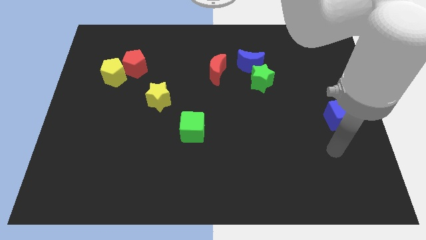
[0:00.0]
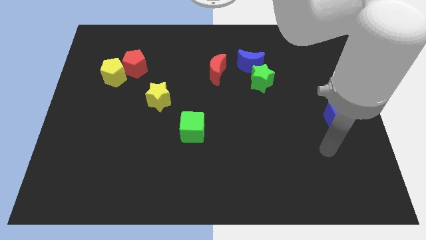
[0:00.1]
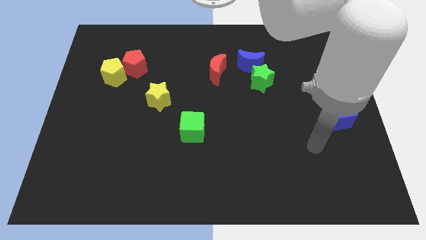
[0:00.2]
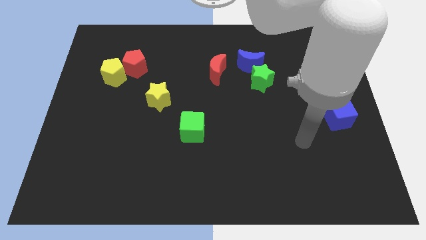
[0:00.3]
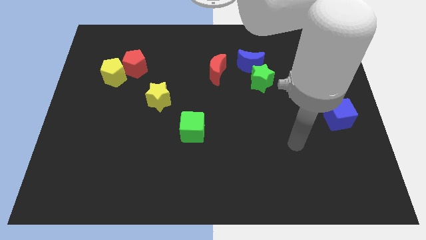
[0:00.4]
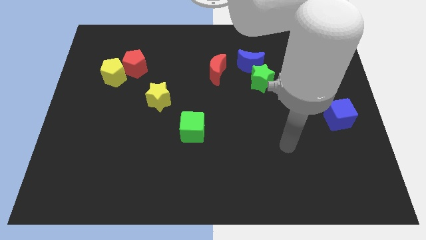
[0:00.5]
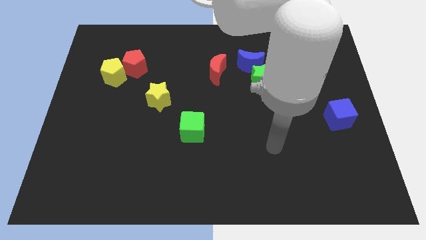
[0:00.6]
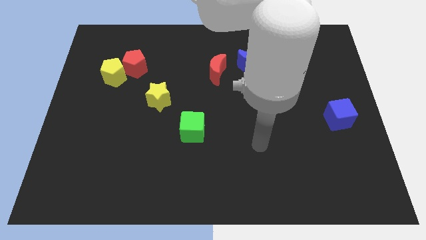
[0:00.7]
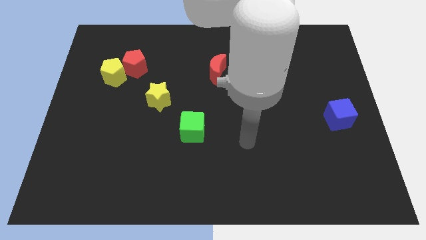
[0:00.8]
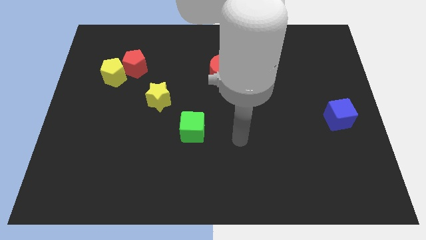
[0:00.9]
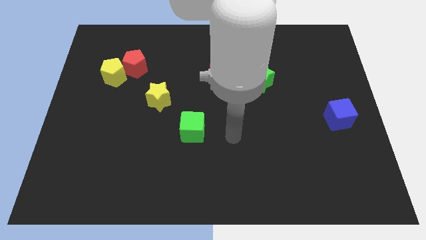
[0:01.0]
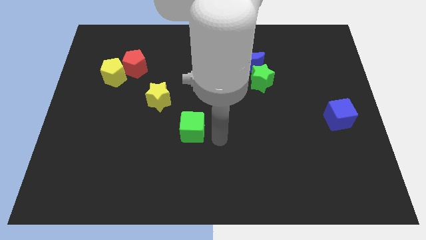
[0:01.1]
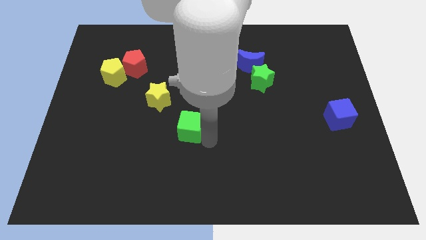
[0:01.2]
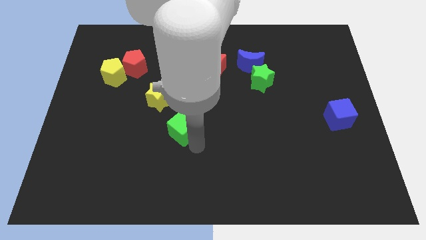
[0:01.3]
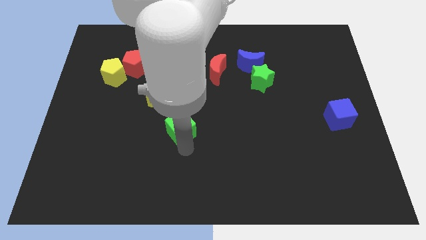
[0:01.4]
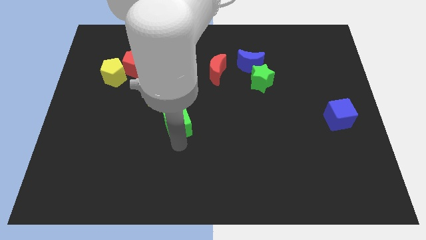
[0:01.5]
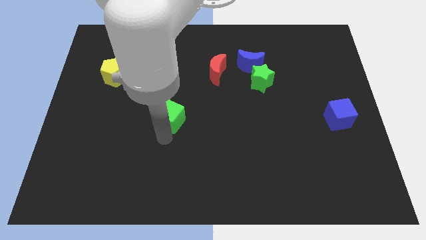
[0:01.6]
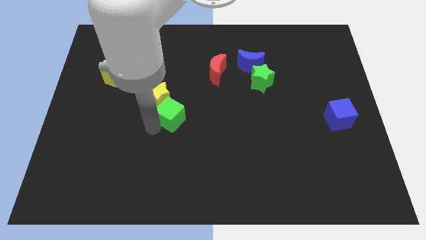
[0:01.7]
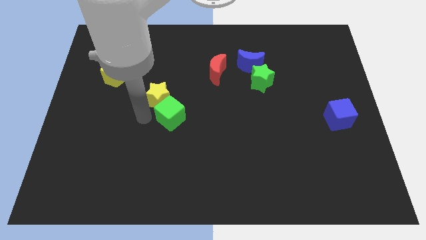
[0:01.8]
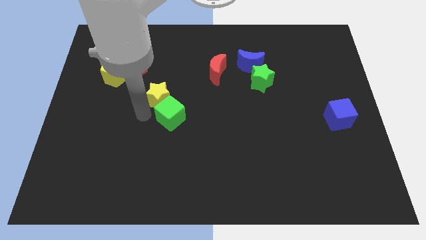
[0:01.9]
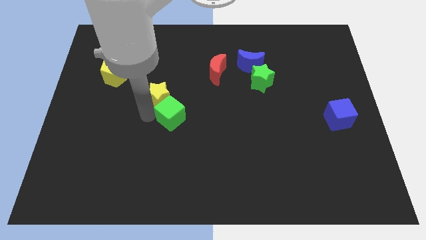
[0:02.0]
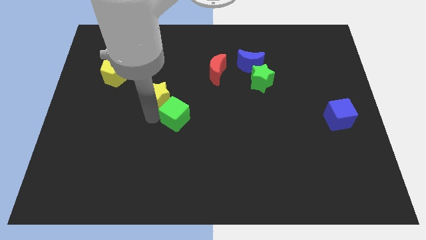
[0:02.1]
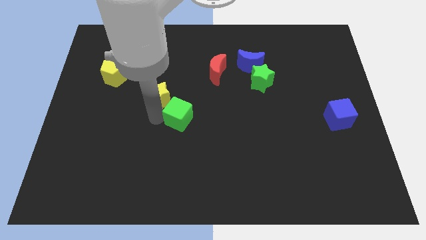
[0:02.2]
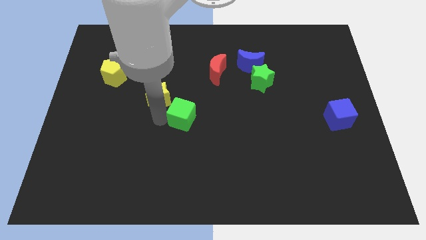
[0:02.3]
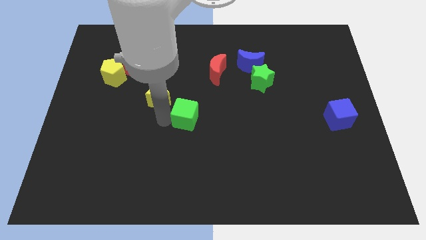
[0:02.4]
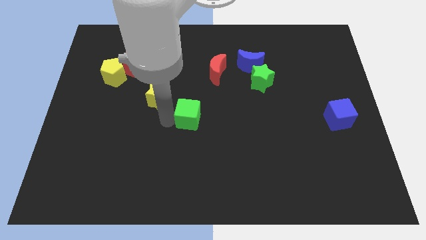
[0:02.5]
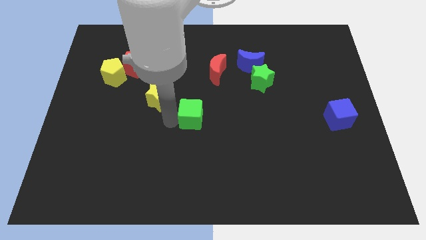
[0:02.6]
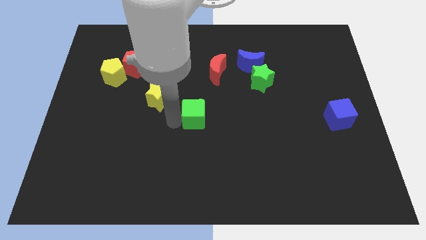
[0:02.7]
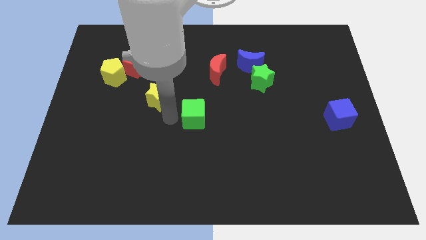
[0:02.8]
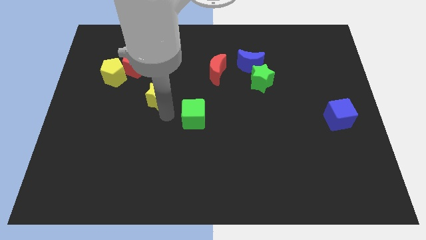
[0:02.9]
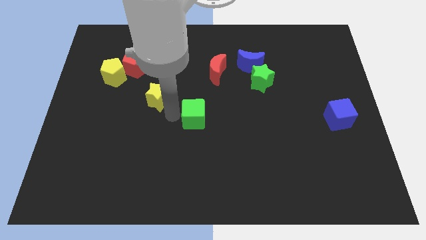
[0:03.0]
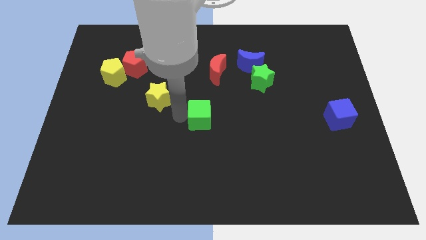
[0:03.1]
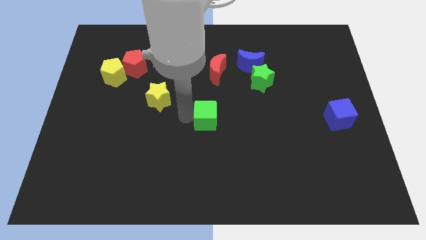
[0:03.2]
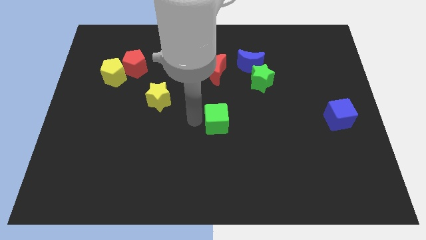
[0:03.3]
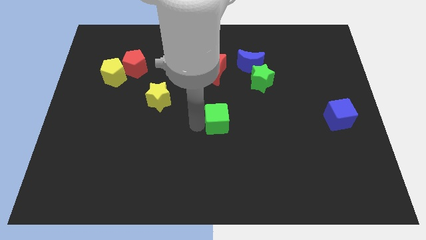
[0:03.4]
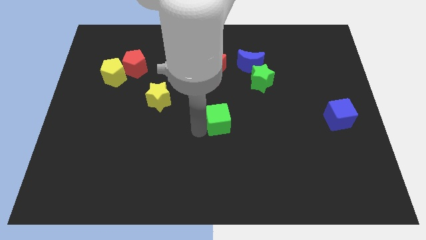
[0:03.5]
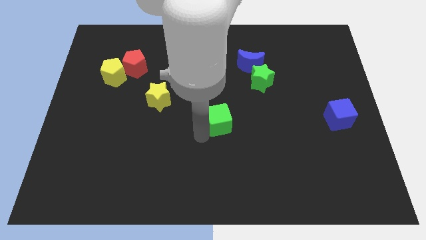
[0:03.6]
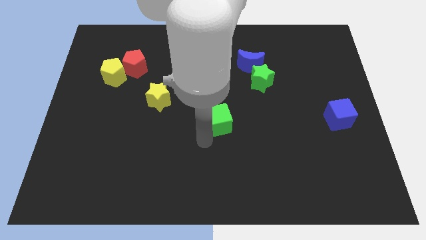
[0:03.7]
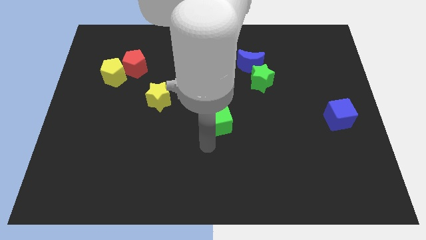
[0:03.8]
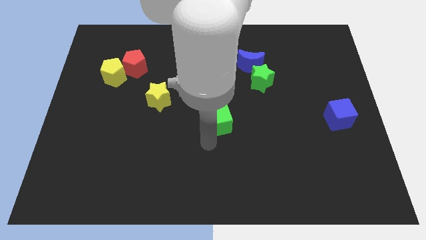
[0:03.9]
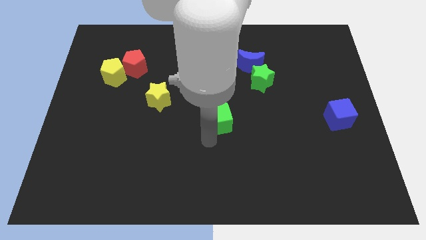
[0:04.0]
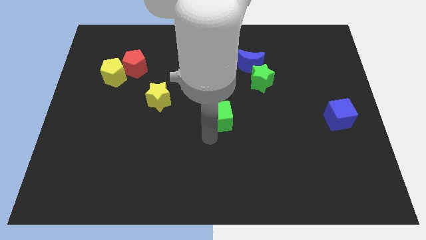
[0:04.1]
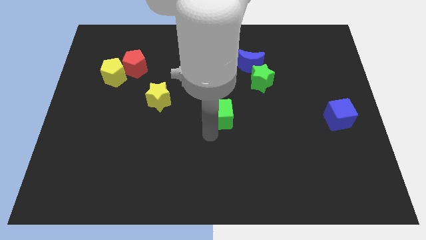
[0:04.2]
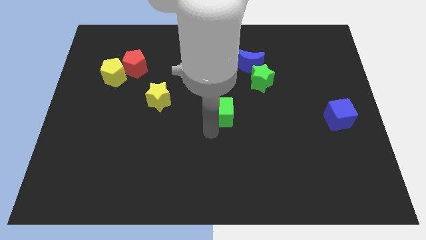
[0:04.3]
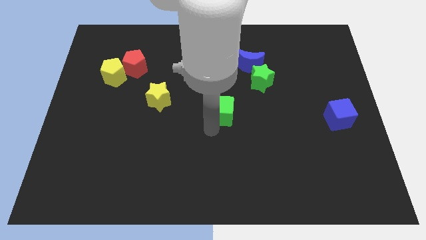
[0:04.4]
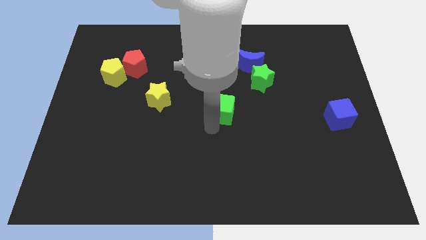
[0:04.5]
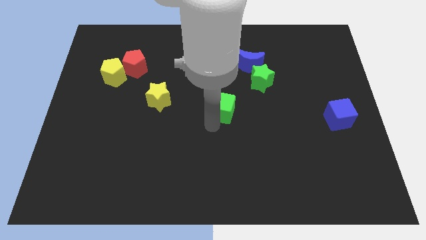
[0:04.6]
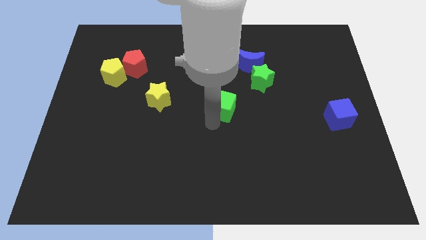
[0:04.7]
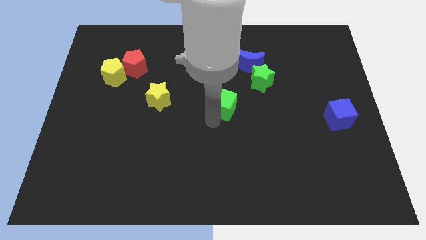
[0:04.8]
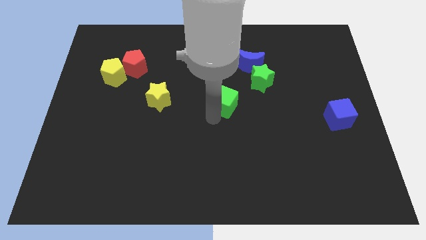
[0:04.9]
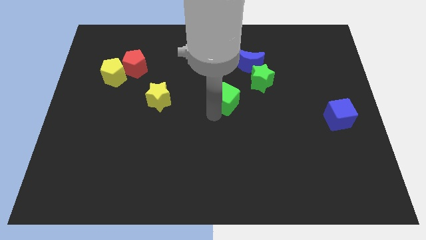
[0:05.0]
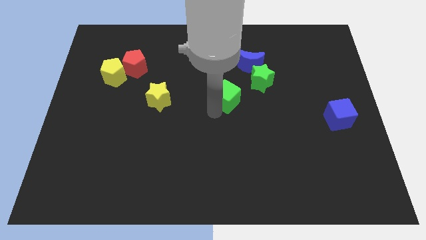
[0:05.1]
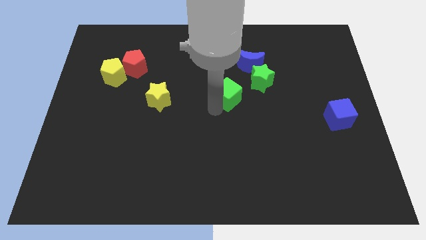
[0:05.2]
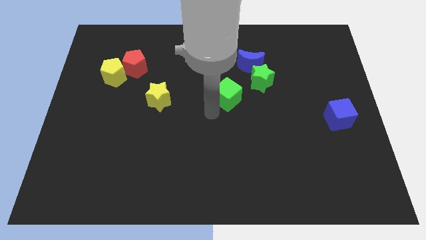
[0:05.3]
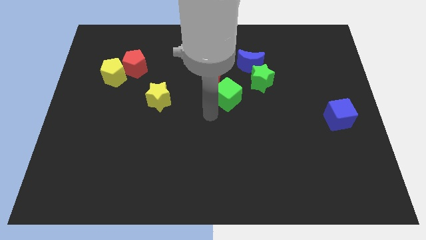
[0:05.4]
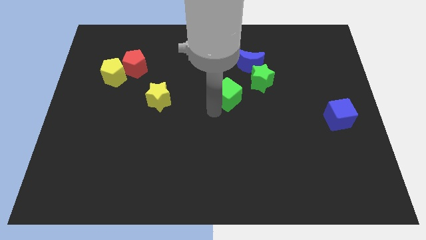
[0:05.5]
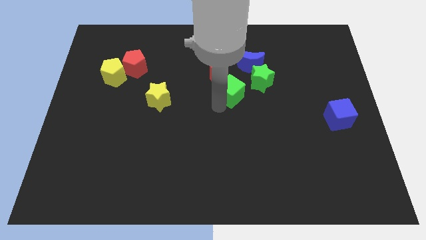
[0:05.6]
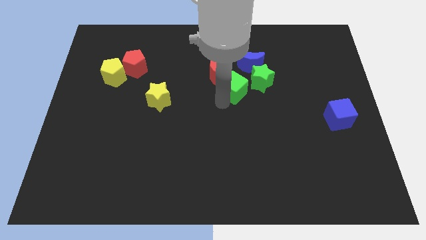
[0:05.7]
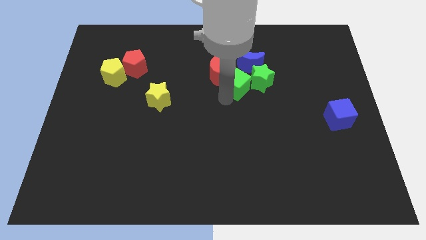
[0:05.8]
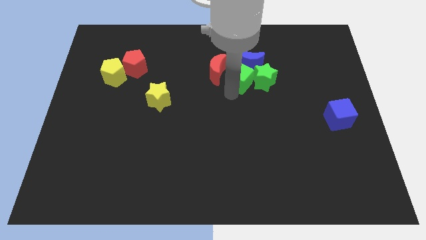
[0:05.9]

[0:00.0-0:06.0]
slide the green cube to the blue moon

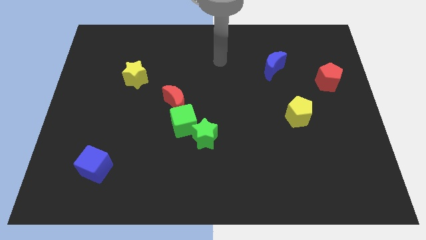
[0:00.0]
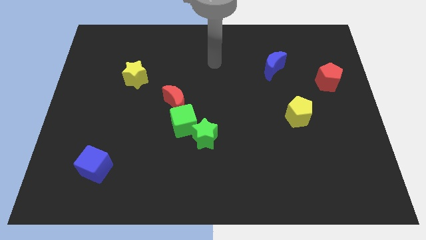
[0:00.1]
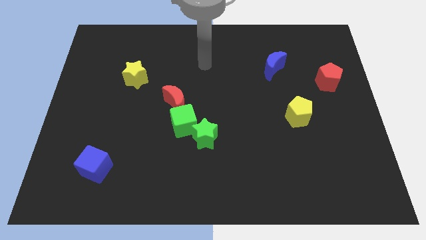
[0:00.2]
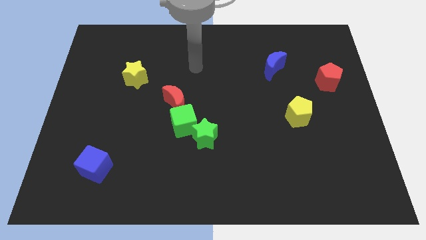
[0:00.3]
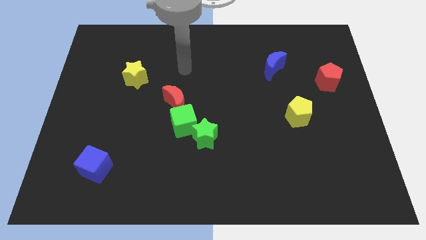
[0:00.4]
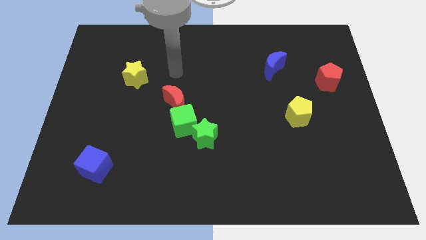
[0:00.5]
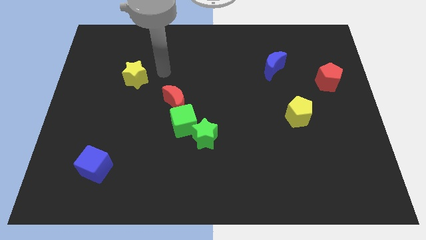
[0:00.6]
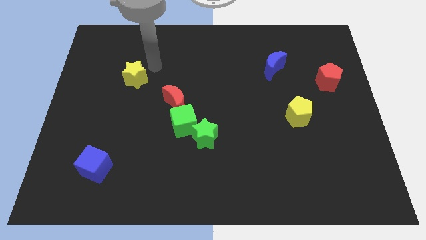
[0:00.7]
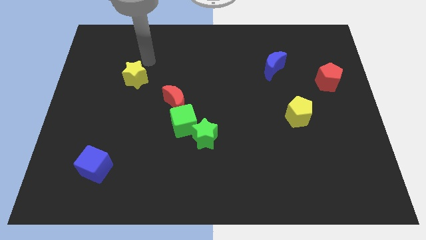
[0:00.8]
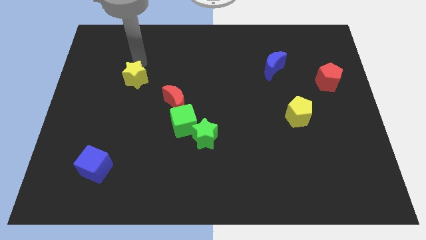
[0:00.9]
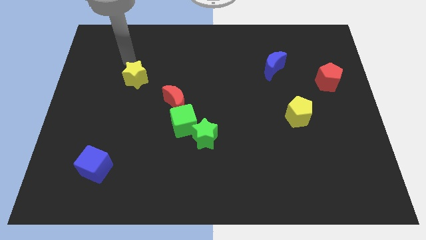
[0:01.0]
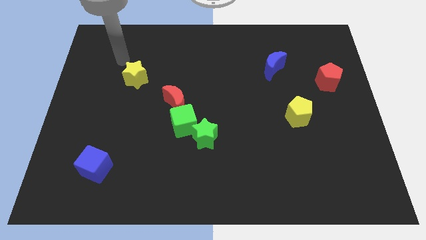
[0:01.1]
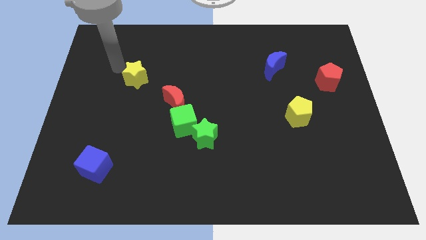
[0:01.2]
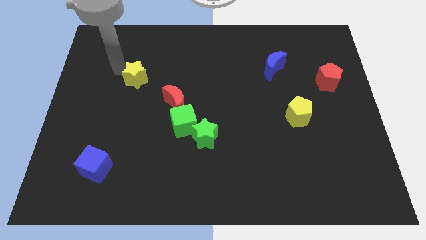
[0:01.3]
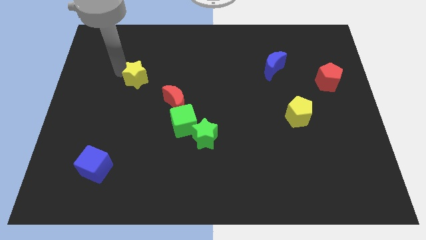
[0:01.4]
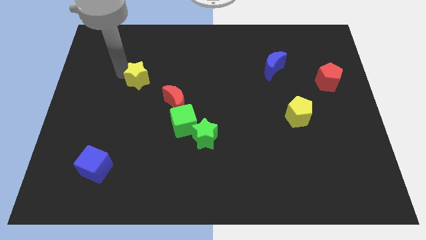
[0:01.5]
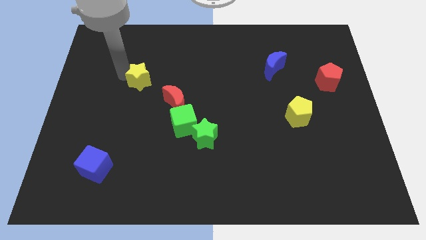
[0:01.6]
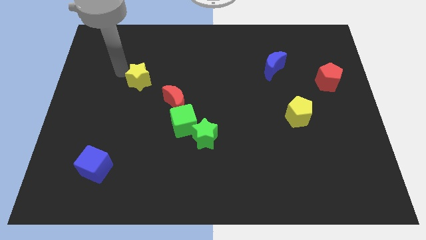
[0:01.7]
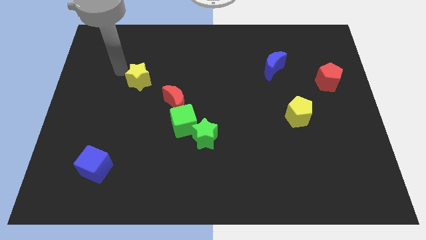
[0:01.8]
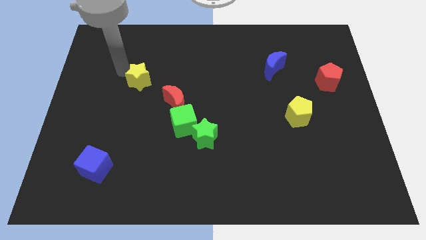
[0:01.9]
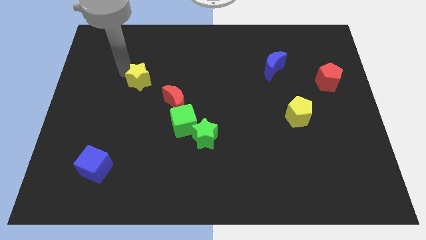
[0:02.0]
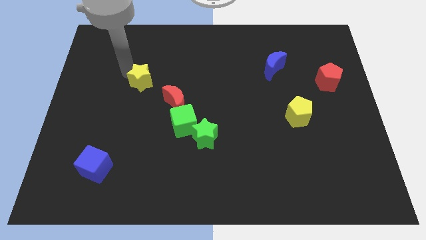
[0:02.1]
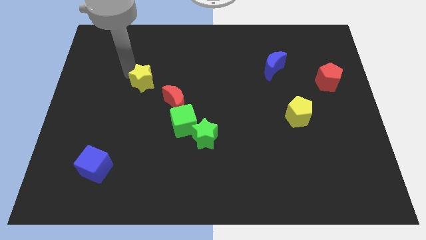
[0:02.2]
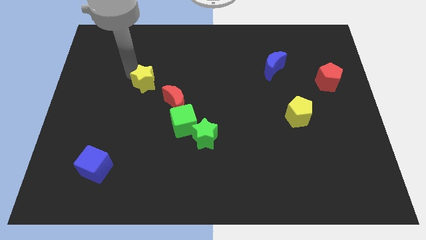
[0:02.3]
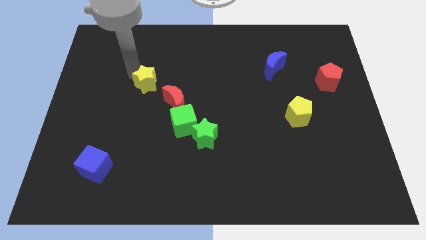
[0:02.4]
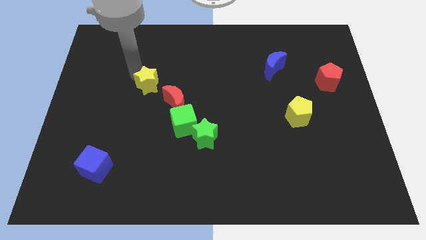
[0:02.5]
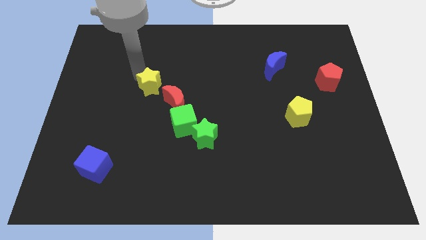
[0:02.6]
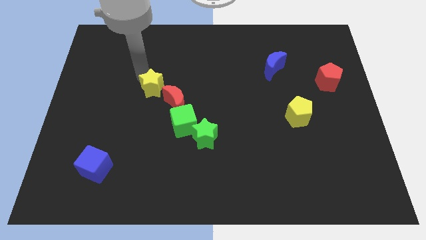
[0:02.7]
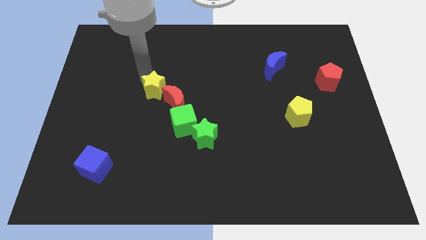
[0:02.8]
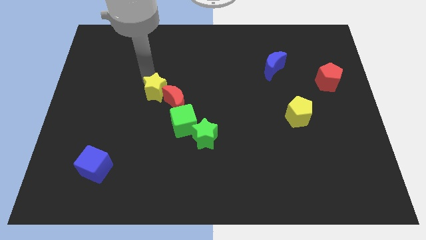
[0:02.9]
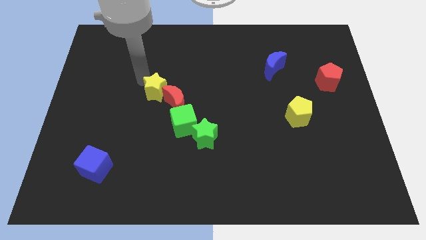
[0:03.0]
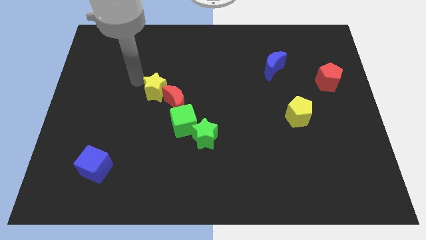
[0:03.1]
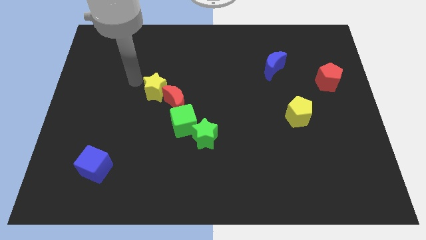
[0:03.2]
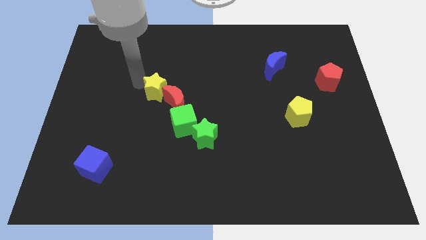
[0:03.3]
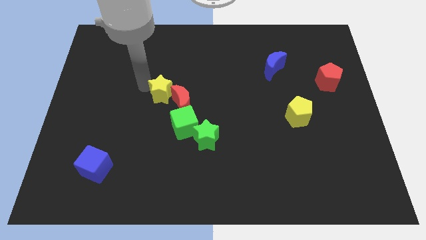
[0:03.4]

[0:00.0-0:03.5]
slide the yellow star to the red moon
